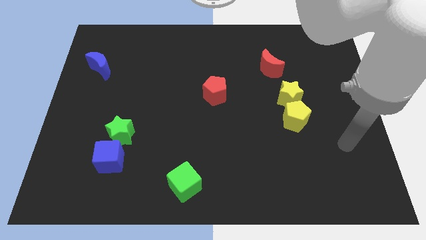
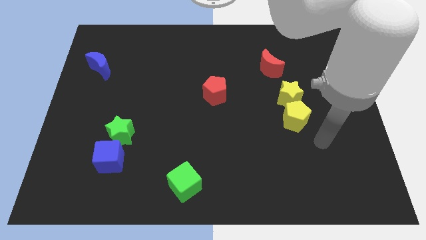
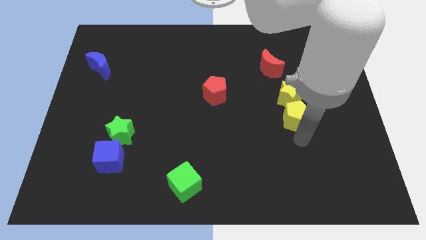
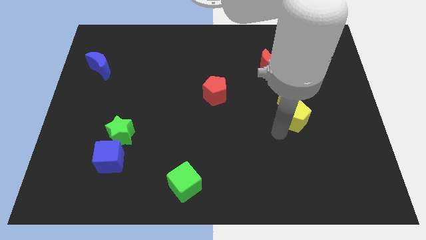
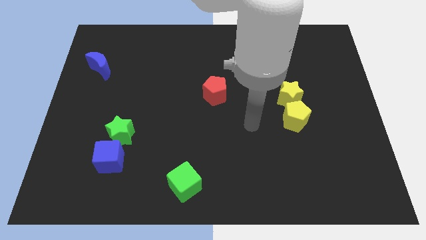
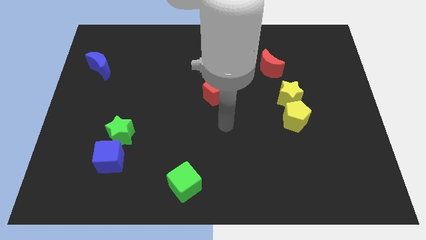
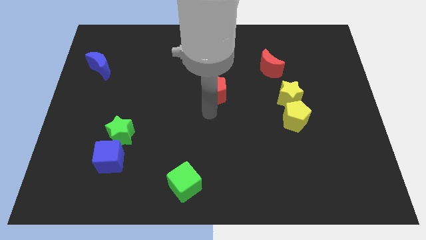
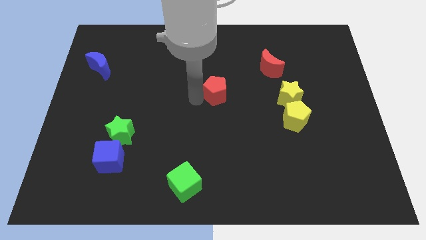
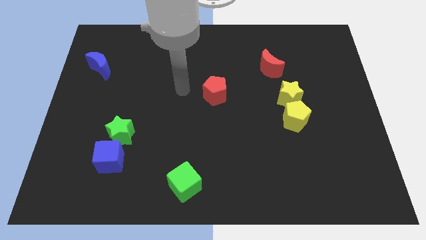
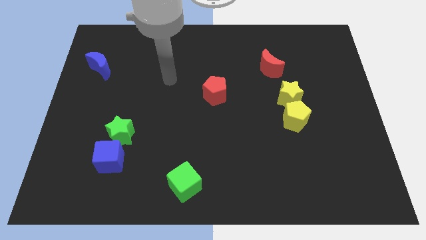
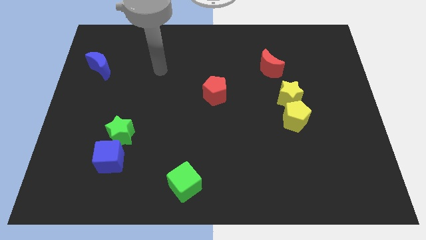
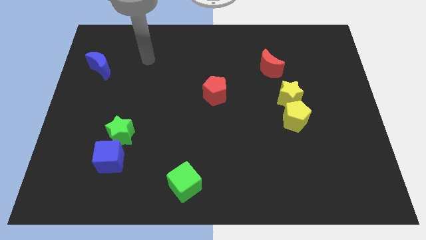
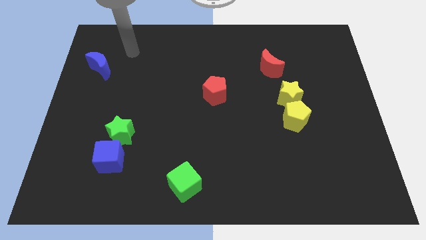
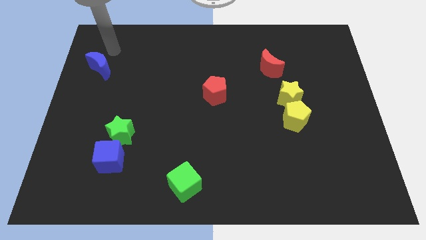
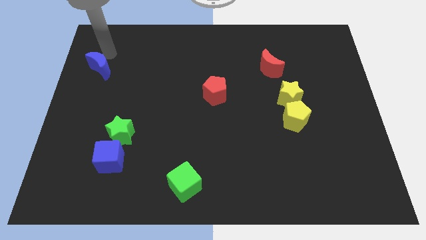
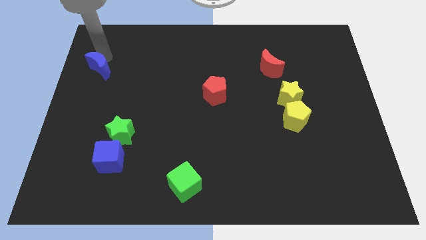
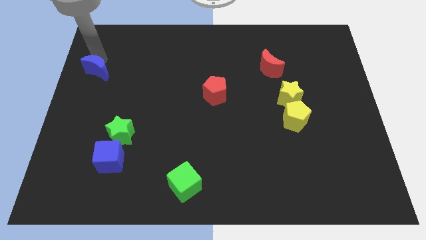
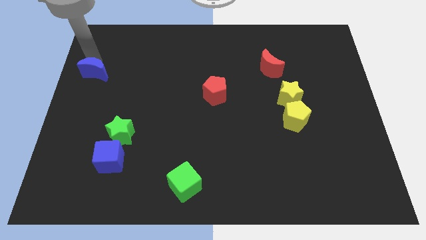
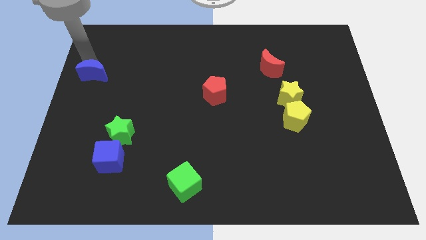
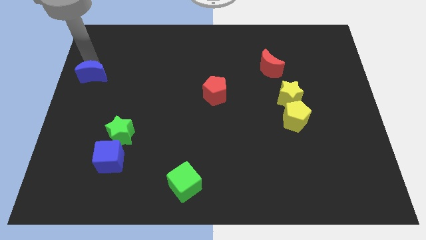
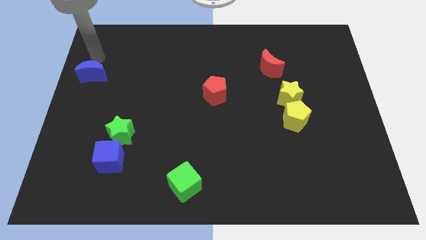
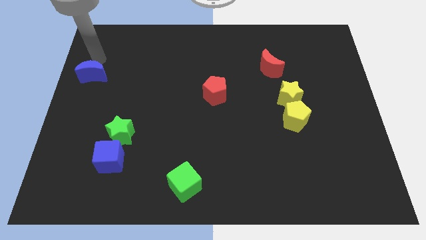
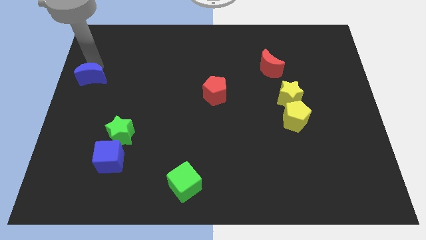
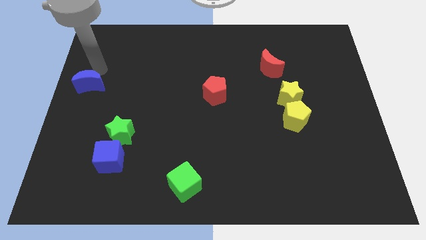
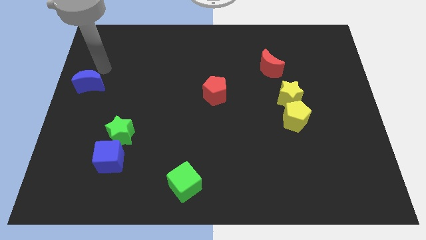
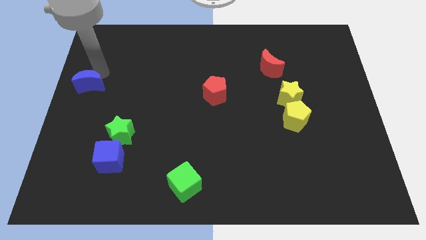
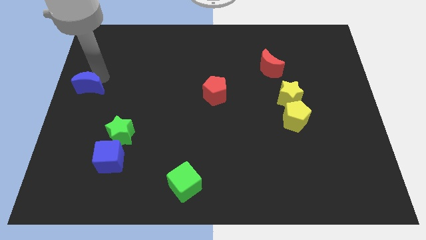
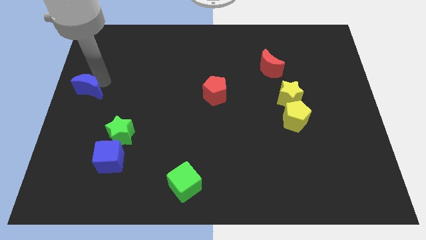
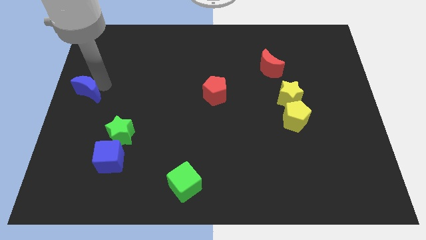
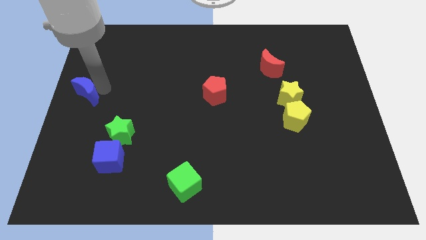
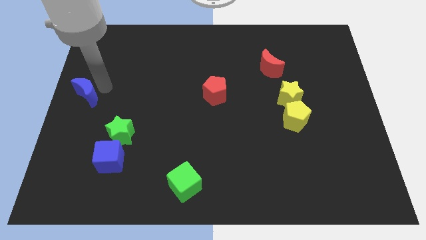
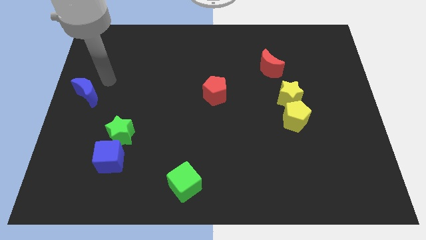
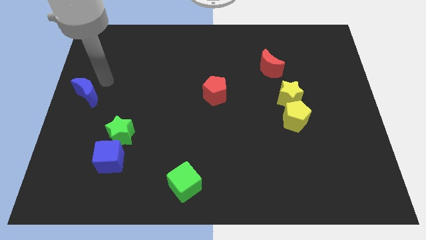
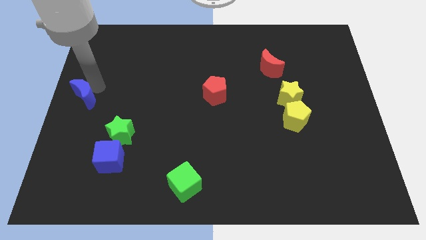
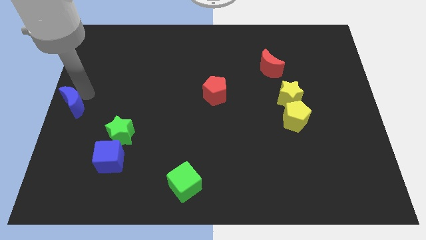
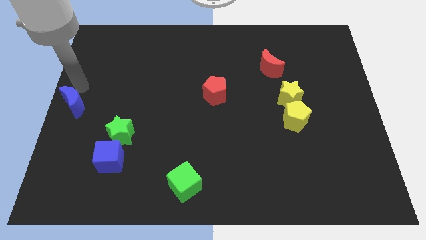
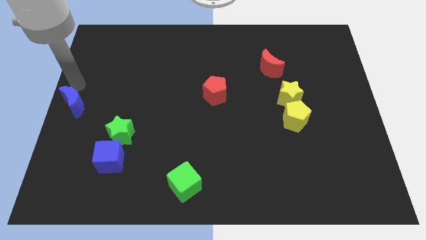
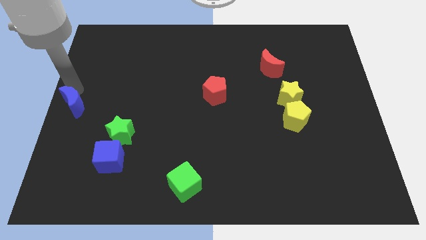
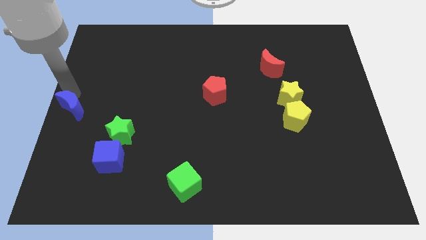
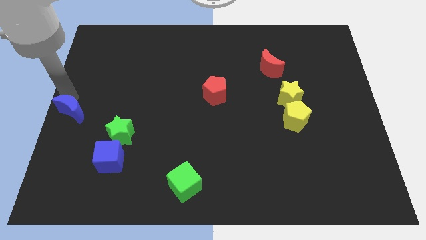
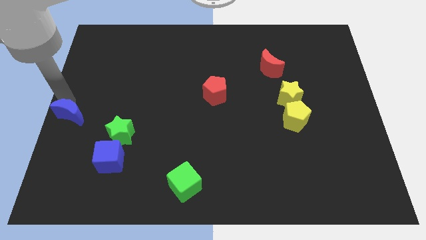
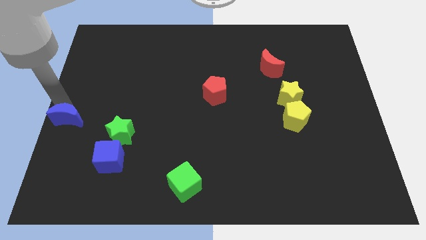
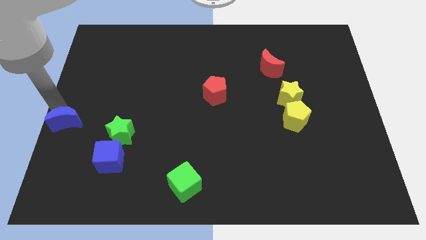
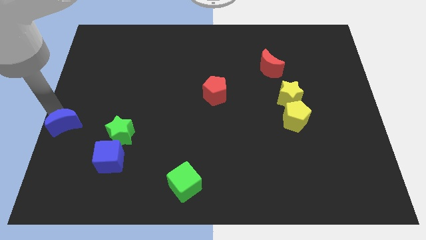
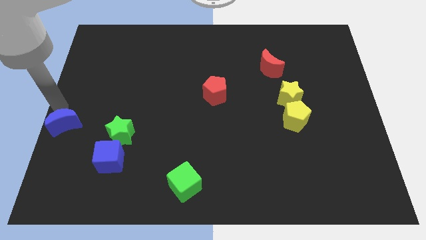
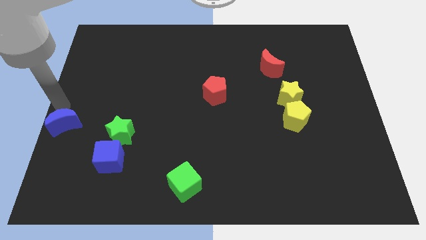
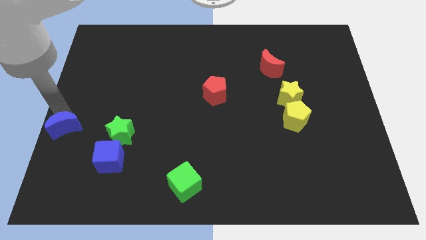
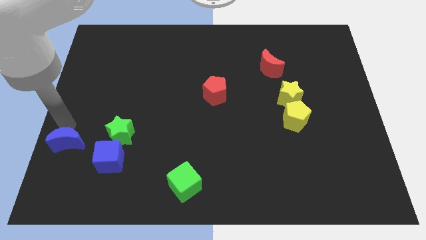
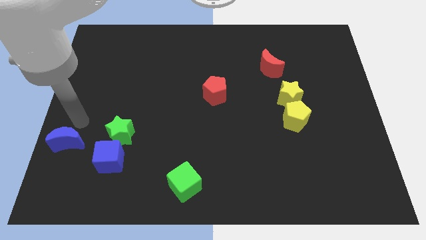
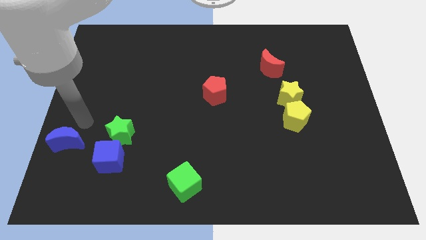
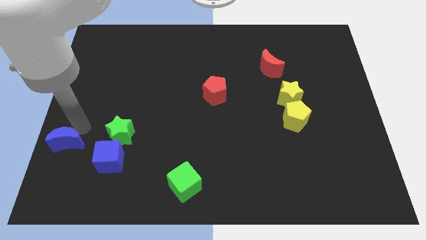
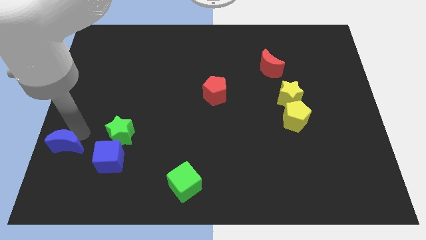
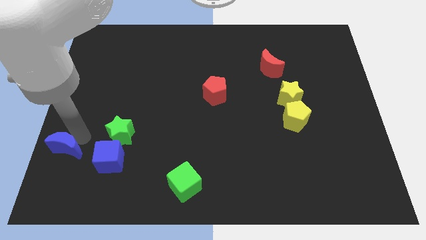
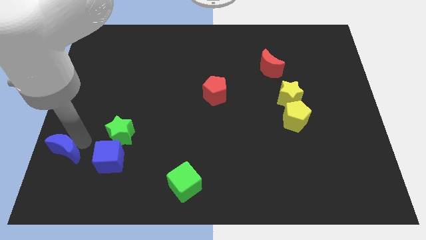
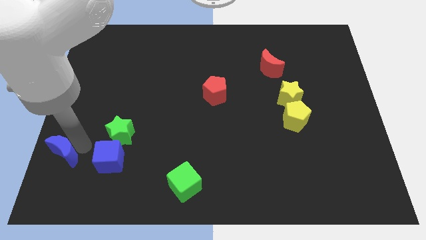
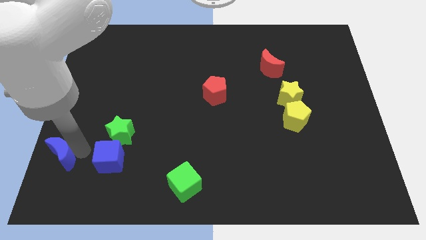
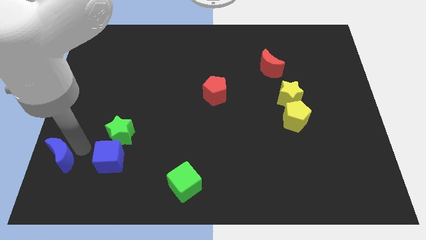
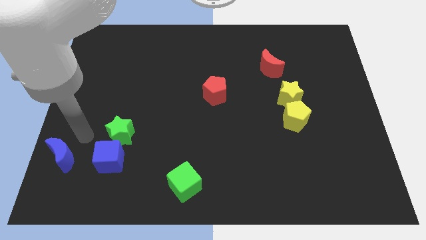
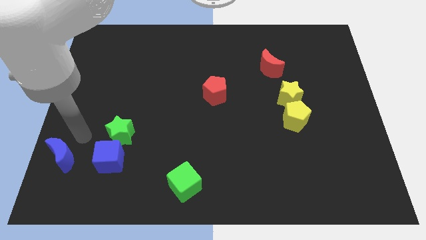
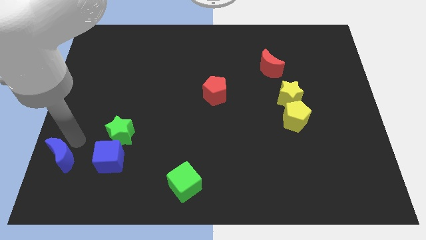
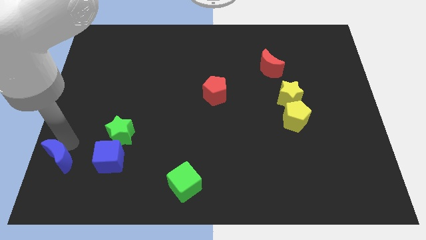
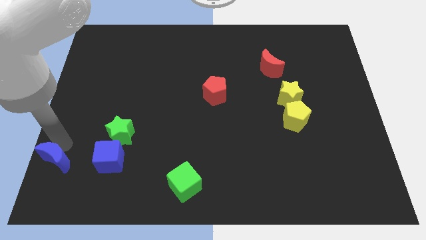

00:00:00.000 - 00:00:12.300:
slide the blue moon to the bottom left
